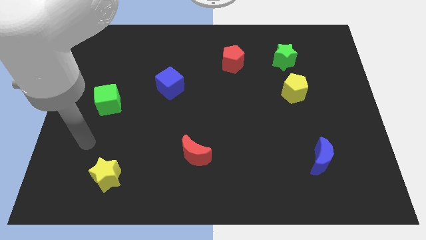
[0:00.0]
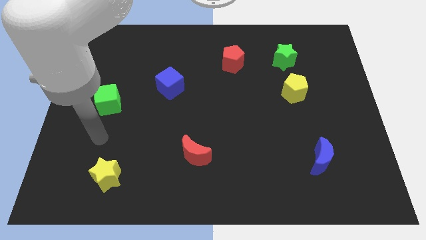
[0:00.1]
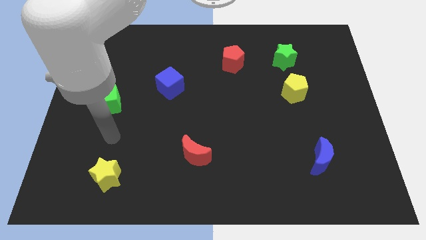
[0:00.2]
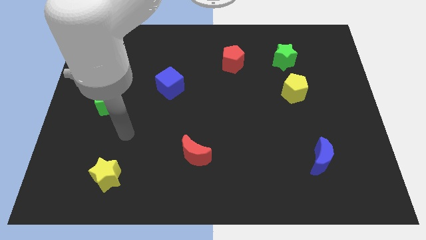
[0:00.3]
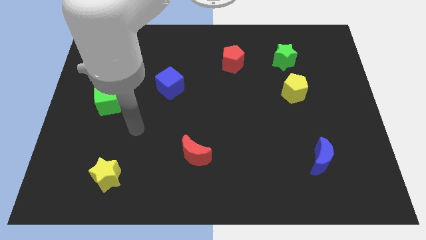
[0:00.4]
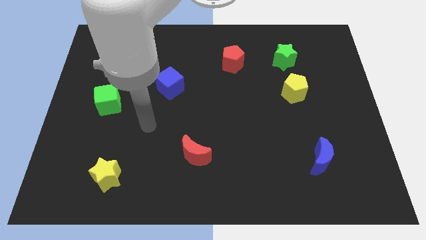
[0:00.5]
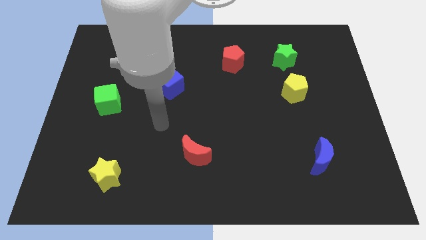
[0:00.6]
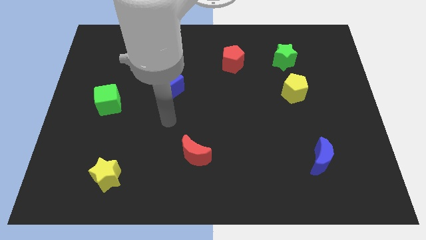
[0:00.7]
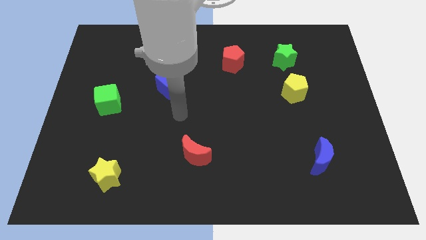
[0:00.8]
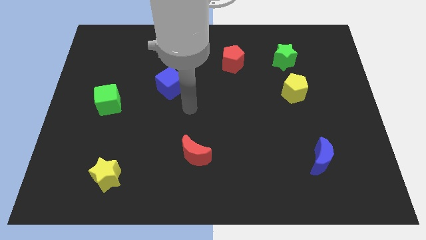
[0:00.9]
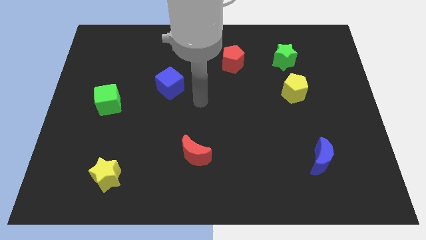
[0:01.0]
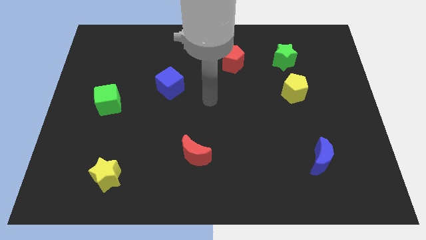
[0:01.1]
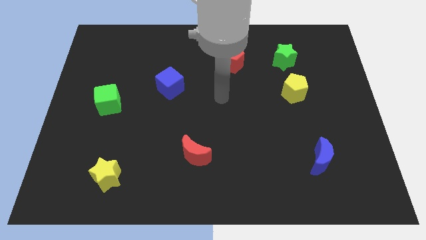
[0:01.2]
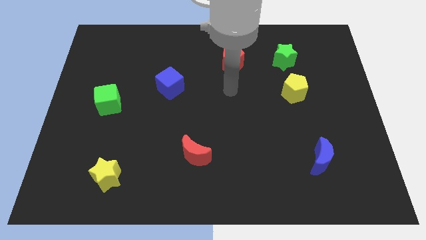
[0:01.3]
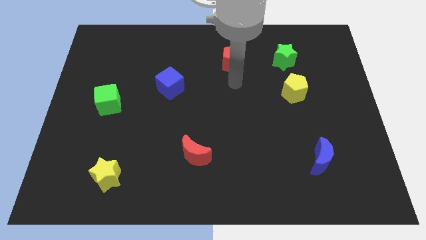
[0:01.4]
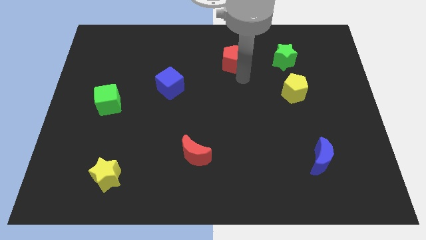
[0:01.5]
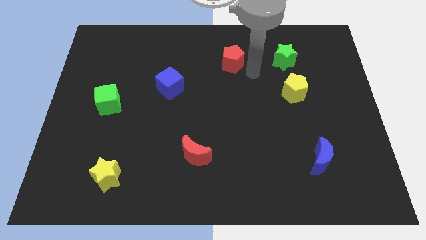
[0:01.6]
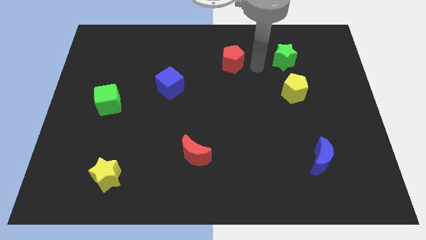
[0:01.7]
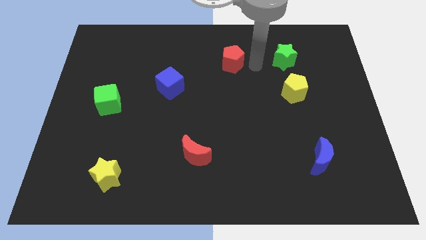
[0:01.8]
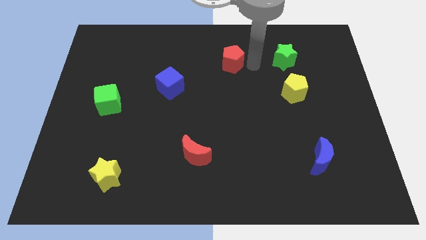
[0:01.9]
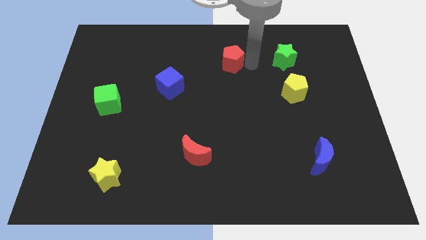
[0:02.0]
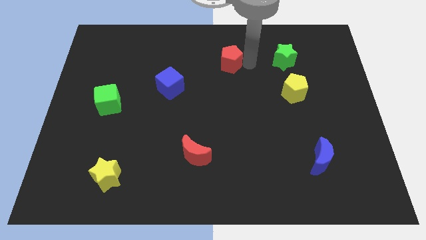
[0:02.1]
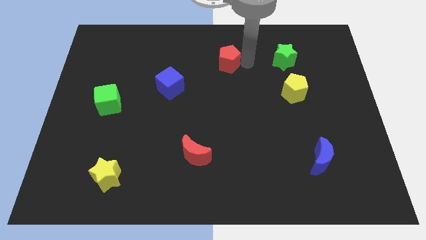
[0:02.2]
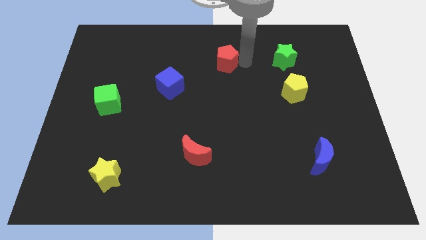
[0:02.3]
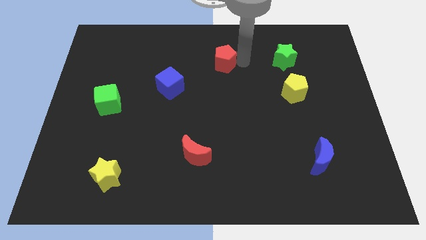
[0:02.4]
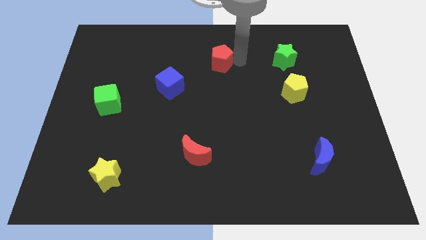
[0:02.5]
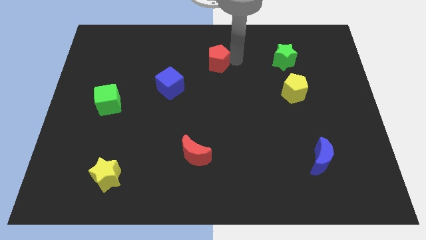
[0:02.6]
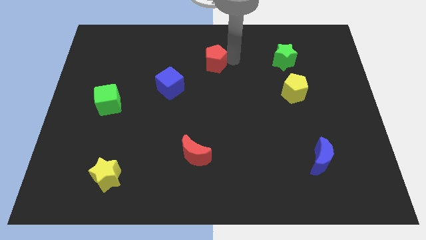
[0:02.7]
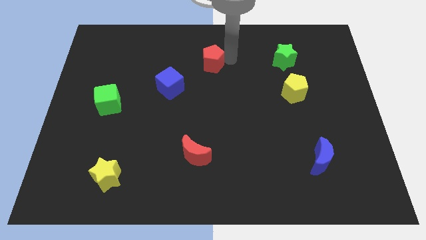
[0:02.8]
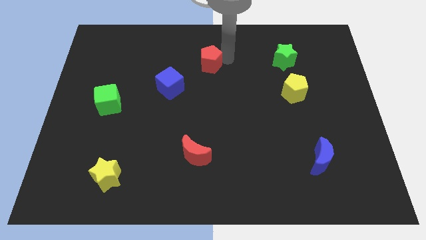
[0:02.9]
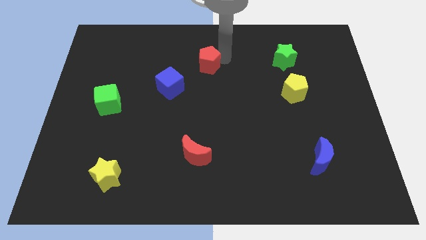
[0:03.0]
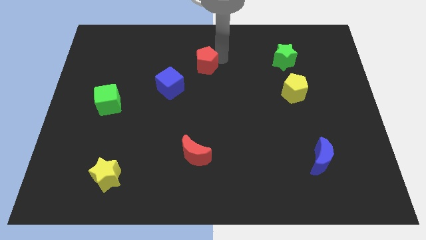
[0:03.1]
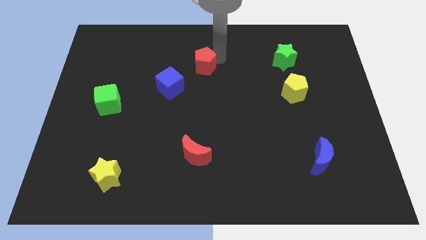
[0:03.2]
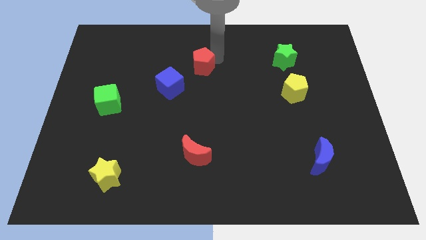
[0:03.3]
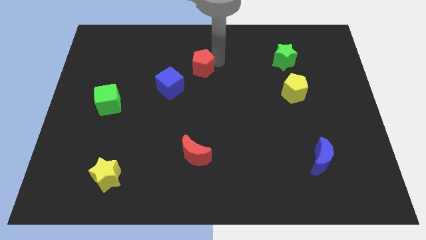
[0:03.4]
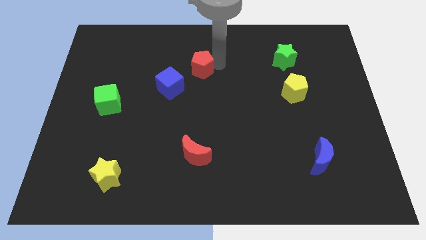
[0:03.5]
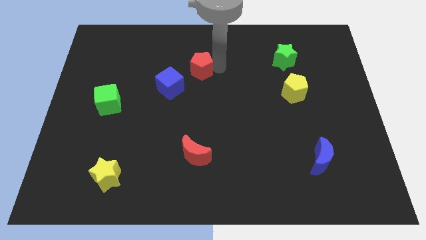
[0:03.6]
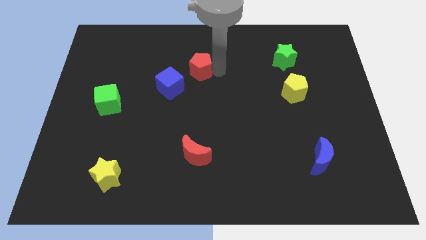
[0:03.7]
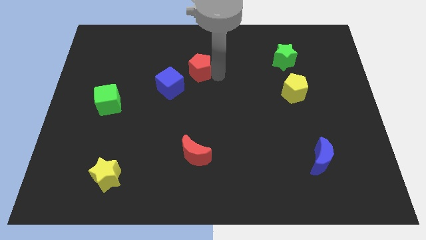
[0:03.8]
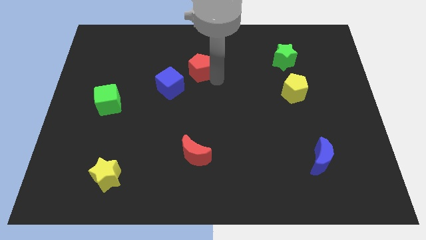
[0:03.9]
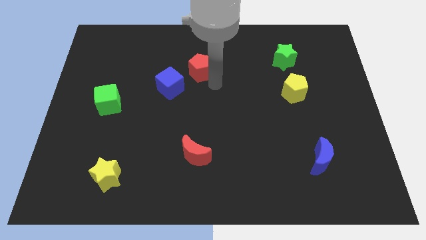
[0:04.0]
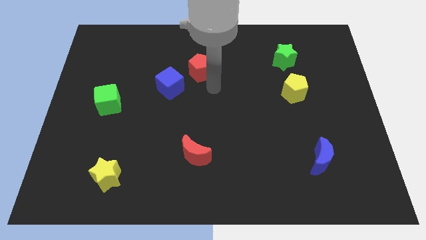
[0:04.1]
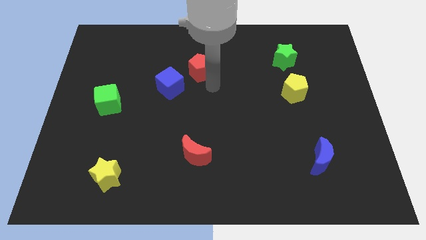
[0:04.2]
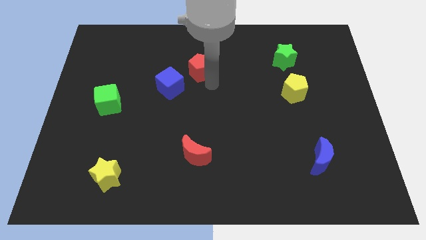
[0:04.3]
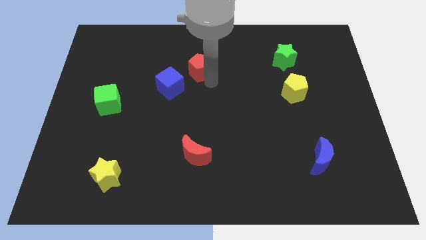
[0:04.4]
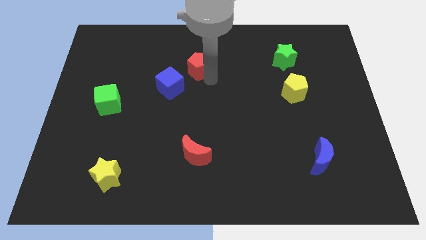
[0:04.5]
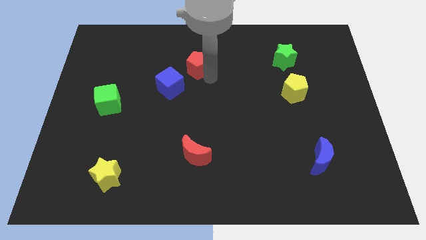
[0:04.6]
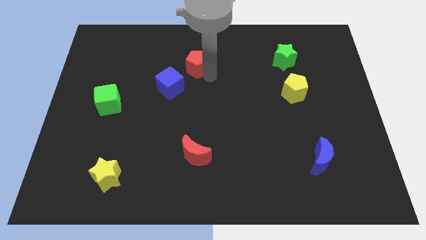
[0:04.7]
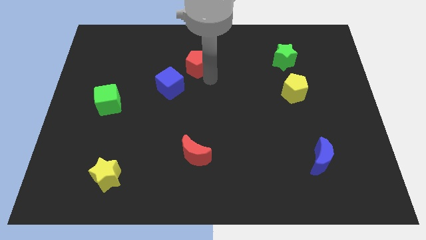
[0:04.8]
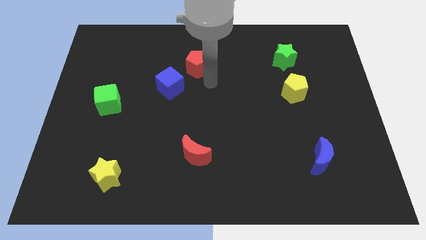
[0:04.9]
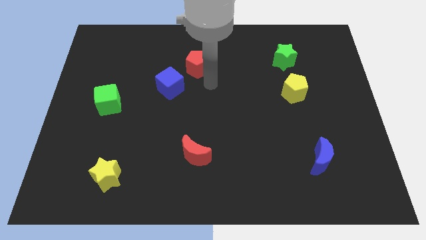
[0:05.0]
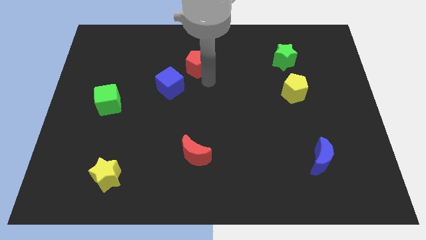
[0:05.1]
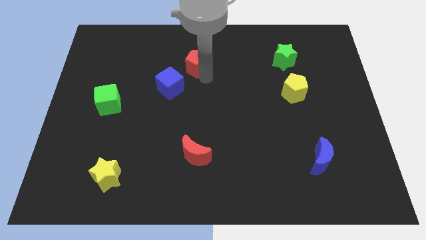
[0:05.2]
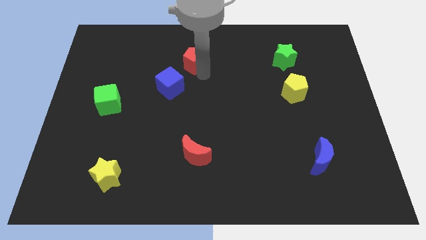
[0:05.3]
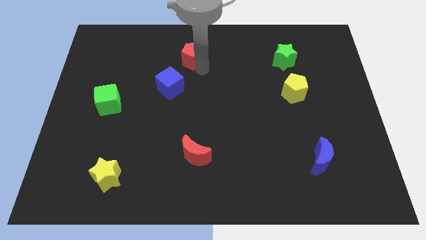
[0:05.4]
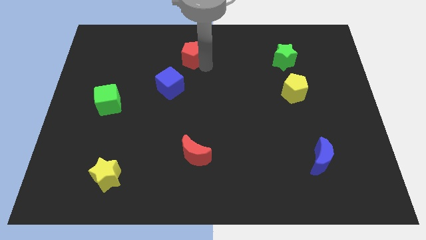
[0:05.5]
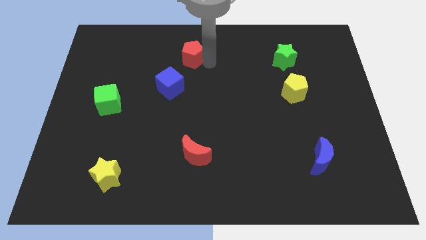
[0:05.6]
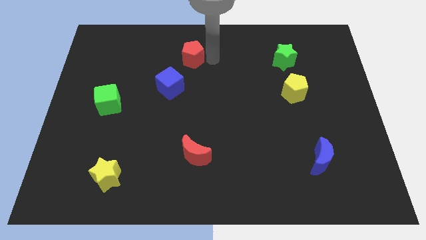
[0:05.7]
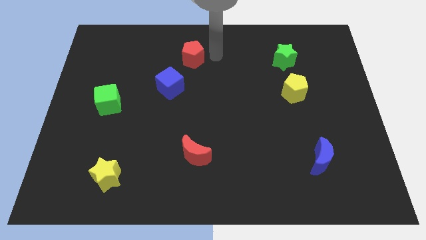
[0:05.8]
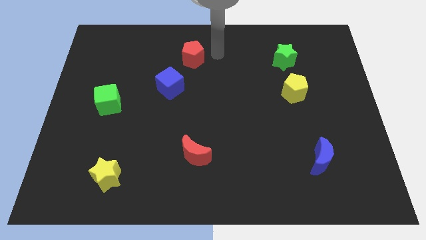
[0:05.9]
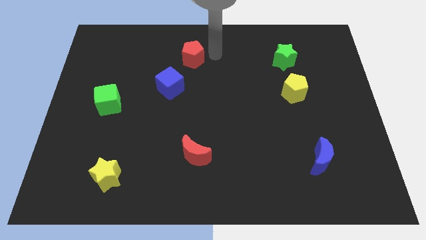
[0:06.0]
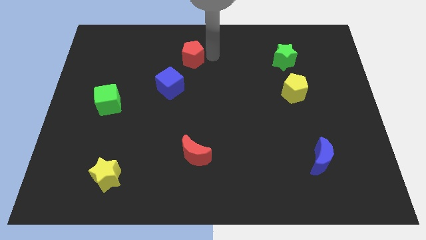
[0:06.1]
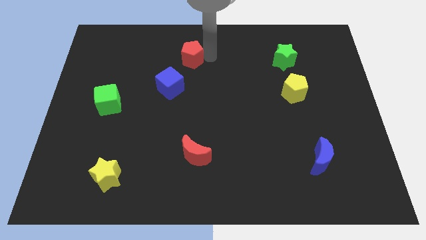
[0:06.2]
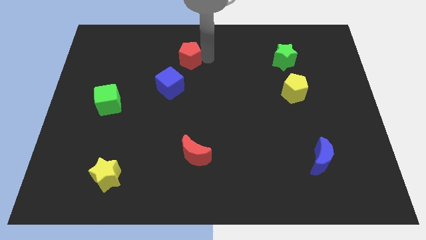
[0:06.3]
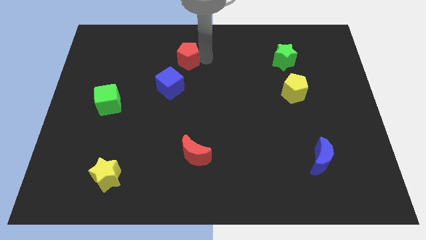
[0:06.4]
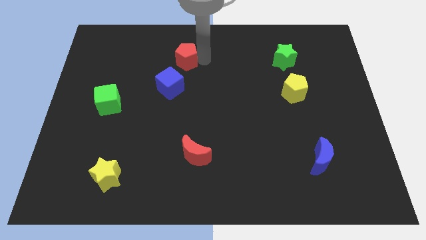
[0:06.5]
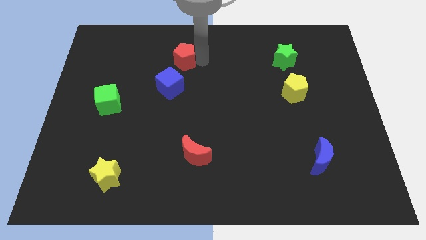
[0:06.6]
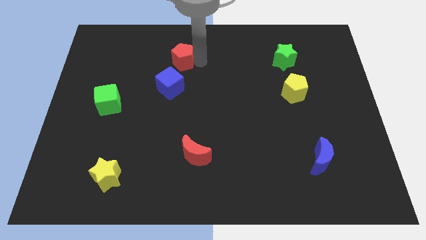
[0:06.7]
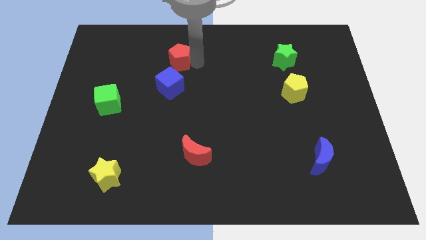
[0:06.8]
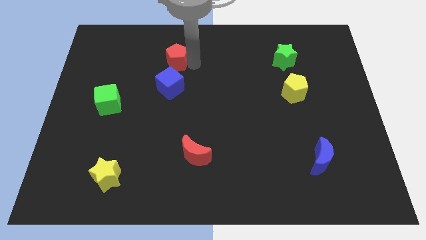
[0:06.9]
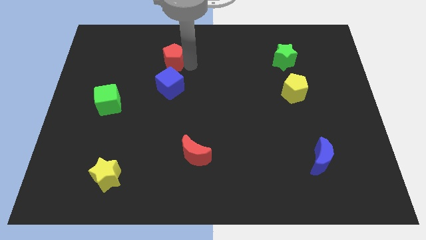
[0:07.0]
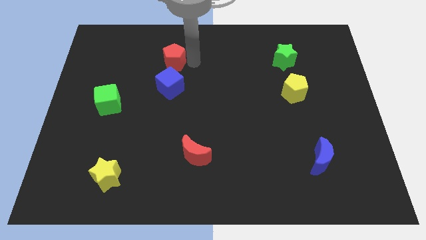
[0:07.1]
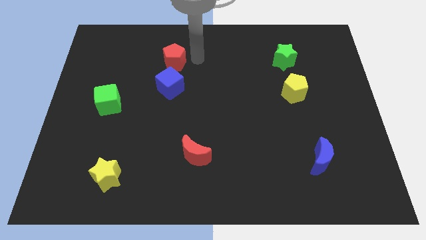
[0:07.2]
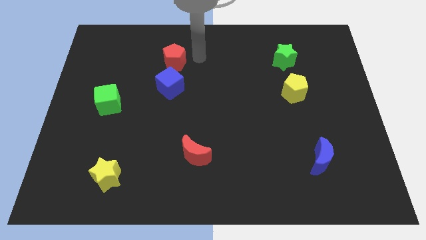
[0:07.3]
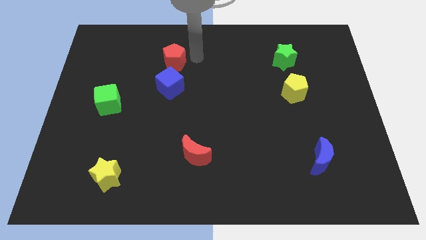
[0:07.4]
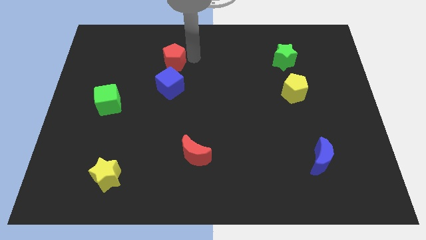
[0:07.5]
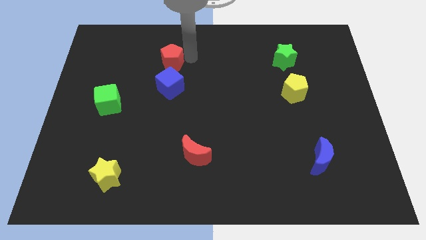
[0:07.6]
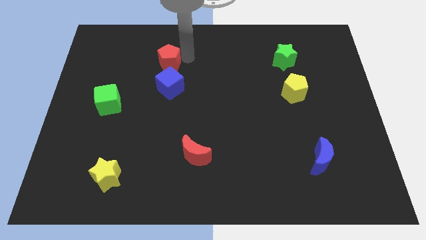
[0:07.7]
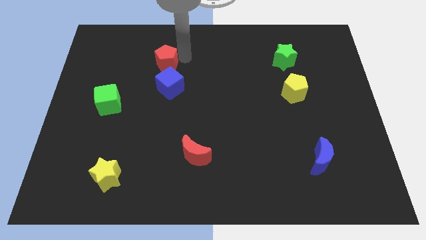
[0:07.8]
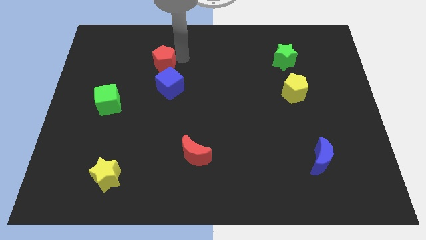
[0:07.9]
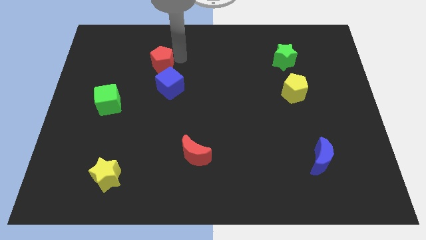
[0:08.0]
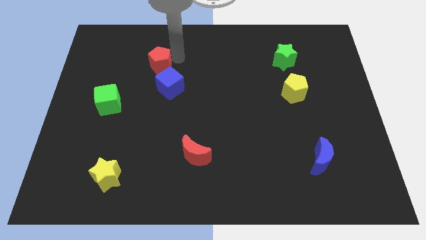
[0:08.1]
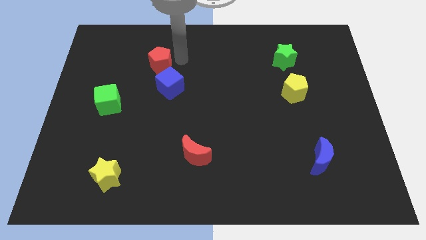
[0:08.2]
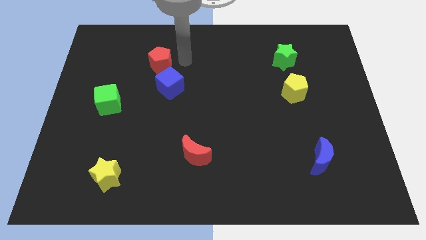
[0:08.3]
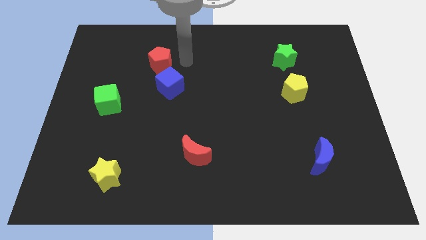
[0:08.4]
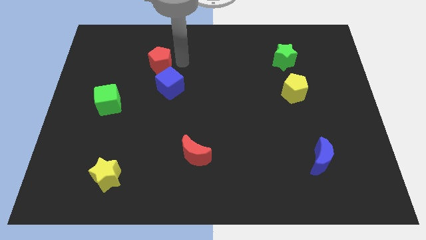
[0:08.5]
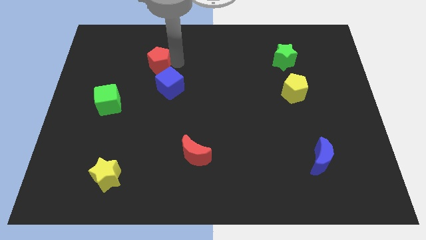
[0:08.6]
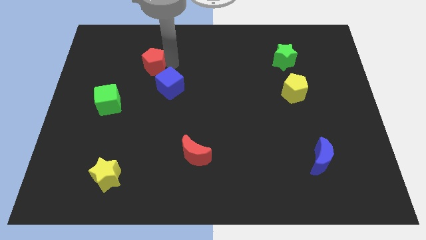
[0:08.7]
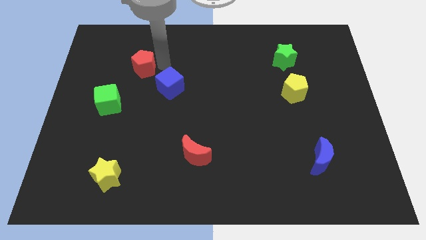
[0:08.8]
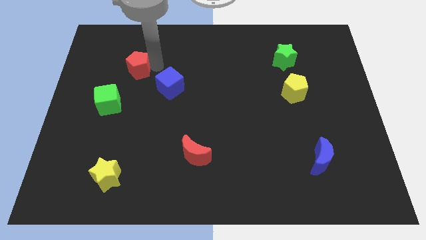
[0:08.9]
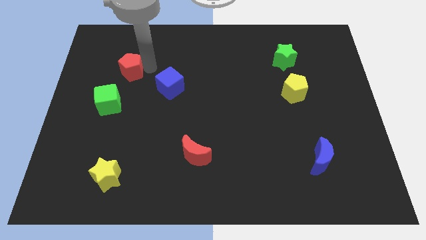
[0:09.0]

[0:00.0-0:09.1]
move the red pentagon to the top side of the green cube
